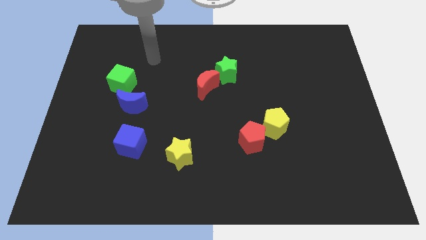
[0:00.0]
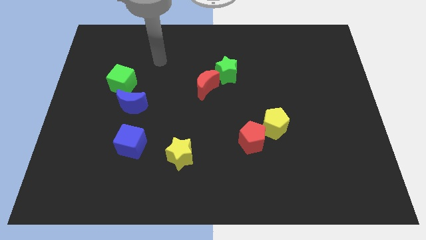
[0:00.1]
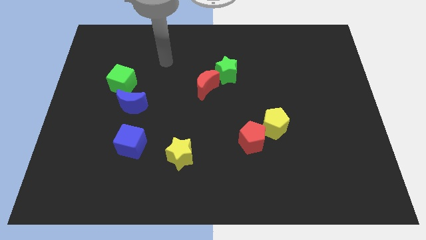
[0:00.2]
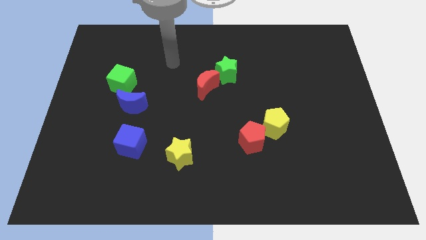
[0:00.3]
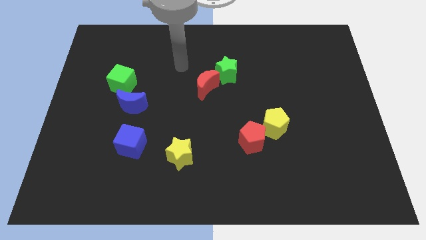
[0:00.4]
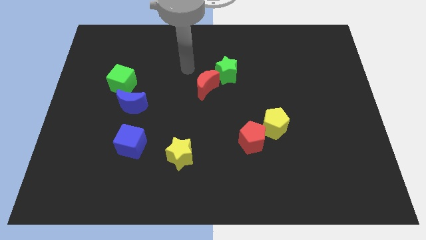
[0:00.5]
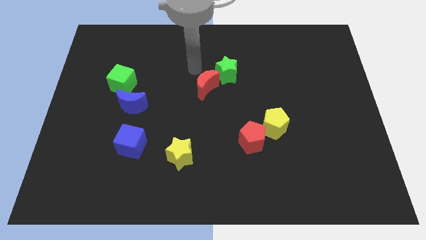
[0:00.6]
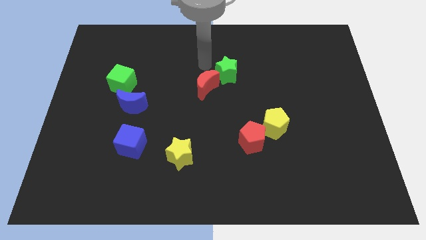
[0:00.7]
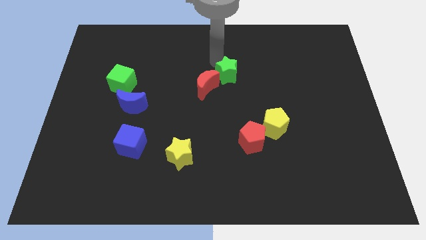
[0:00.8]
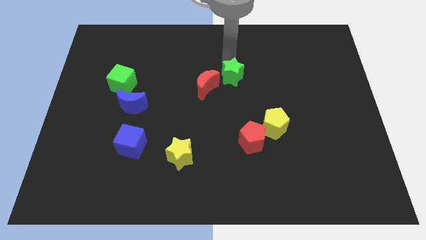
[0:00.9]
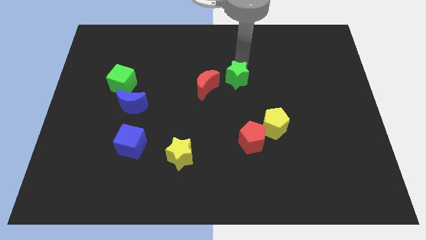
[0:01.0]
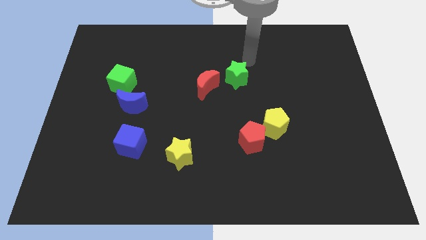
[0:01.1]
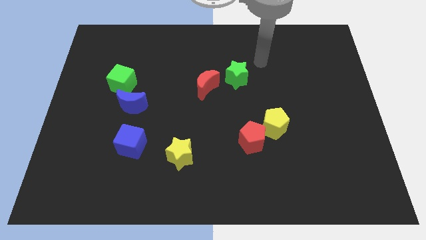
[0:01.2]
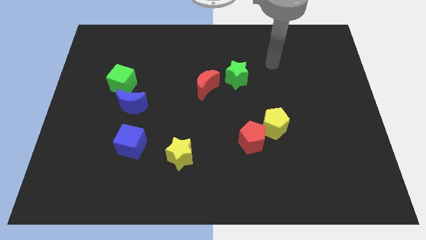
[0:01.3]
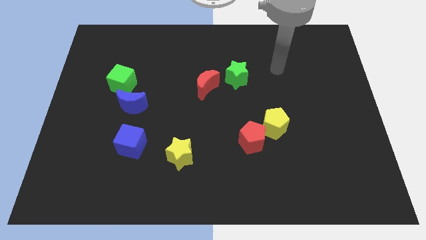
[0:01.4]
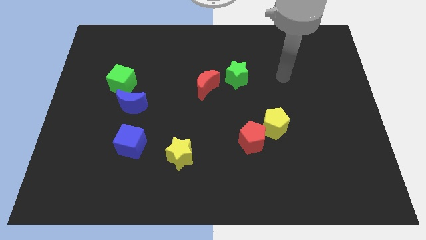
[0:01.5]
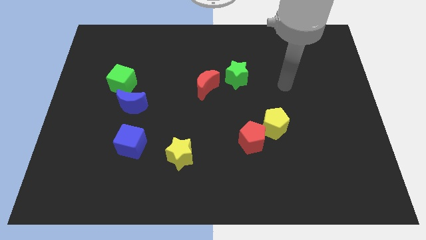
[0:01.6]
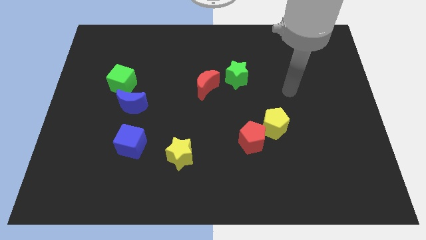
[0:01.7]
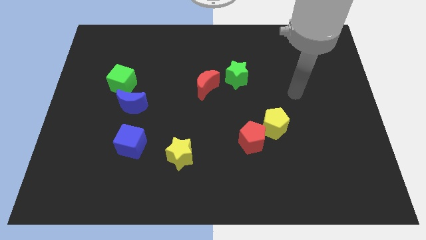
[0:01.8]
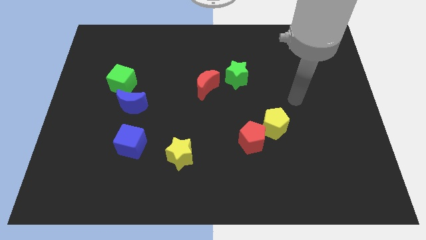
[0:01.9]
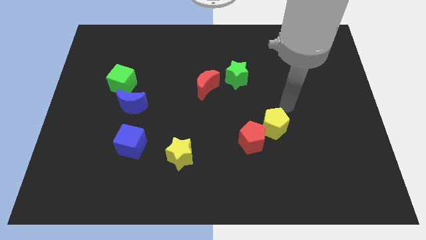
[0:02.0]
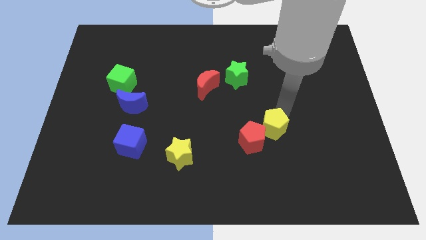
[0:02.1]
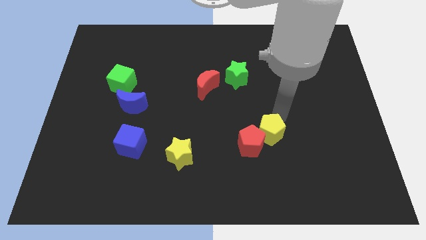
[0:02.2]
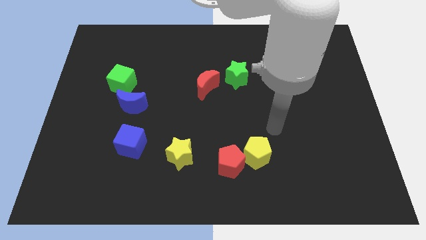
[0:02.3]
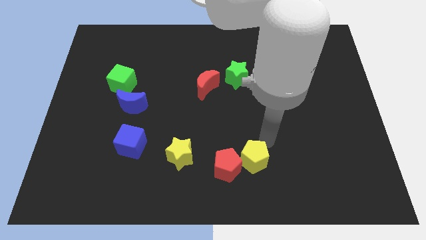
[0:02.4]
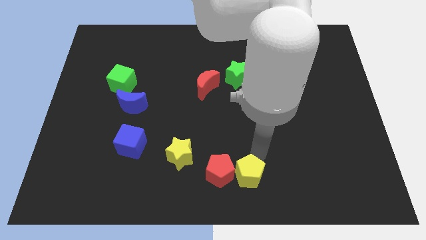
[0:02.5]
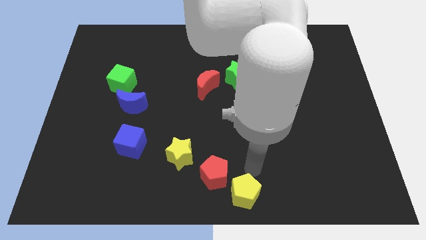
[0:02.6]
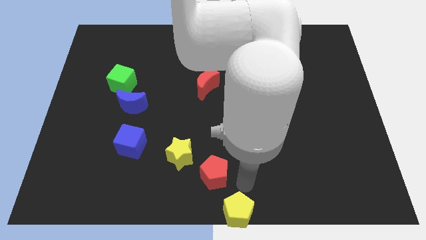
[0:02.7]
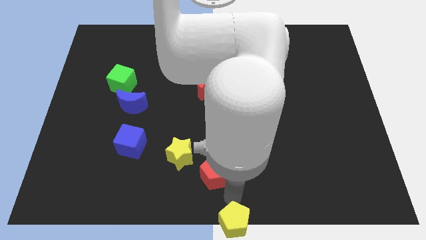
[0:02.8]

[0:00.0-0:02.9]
move the red pentagon away from the yellow pentagon

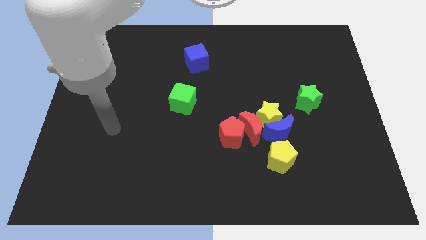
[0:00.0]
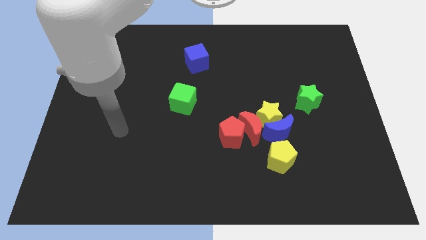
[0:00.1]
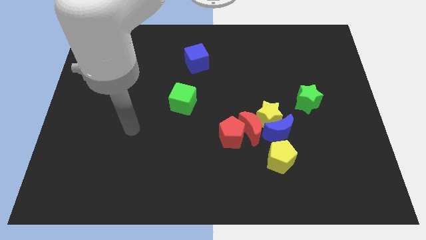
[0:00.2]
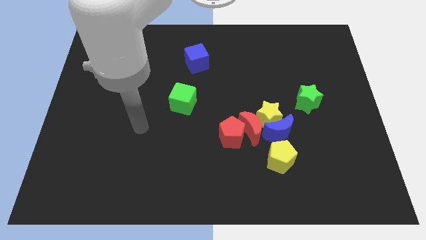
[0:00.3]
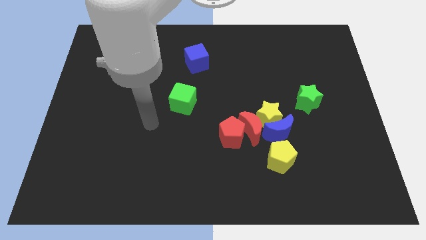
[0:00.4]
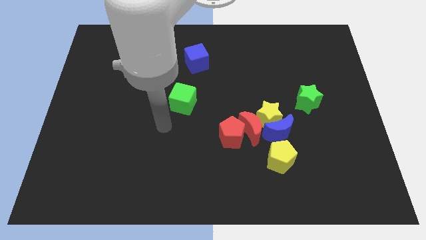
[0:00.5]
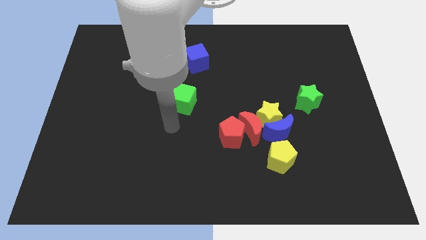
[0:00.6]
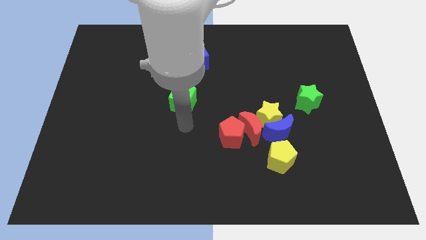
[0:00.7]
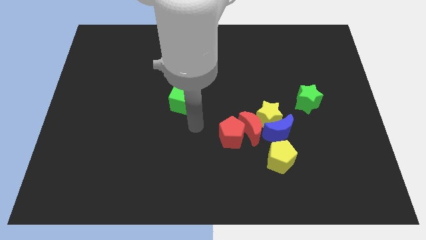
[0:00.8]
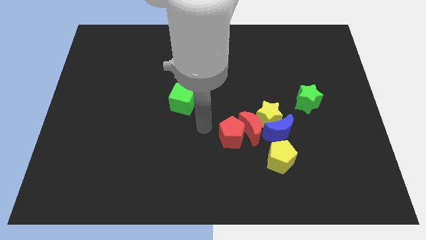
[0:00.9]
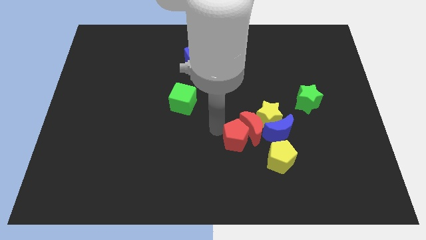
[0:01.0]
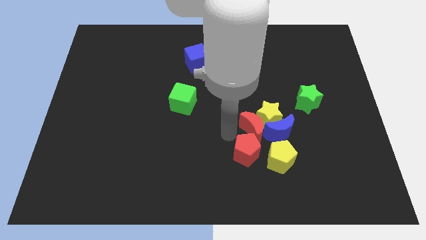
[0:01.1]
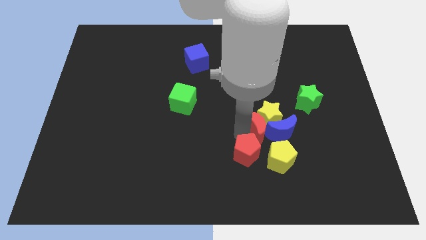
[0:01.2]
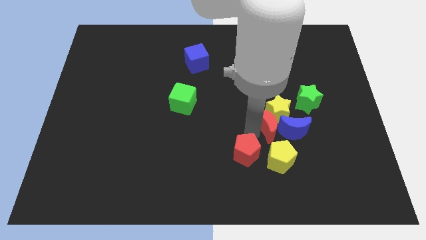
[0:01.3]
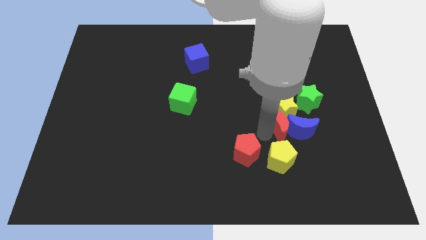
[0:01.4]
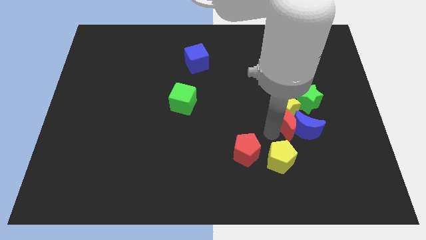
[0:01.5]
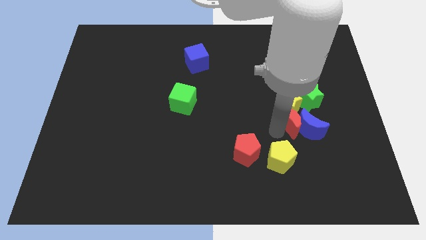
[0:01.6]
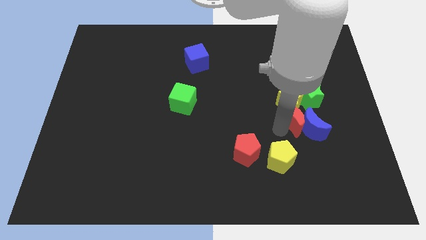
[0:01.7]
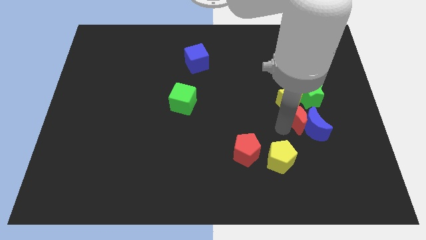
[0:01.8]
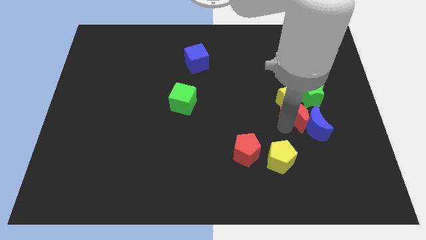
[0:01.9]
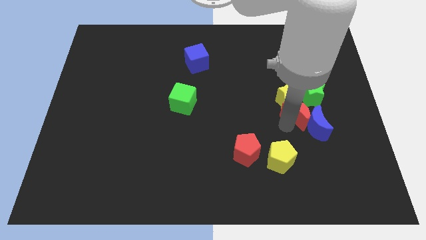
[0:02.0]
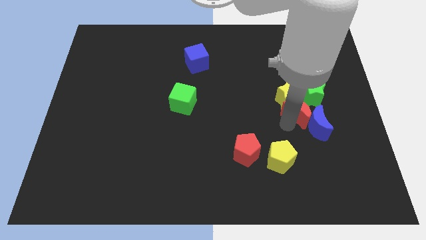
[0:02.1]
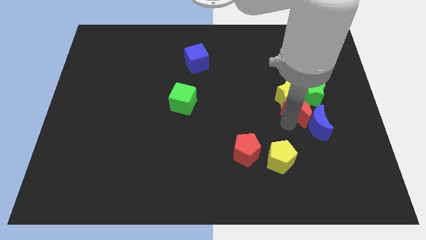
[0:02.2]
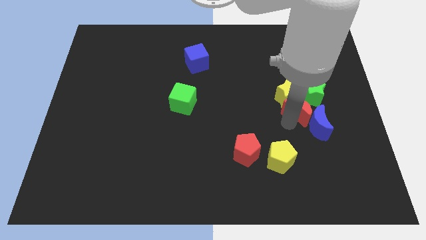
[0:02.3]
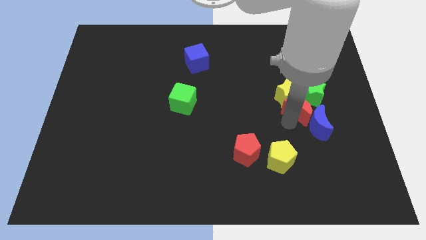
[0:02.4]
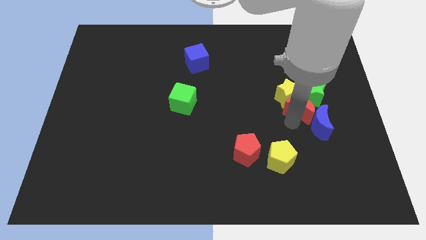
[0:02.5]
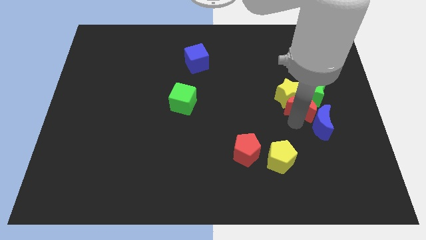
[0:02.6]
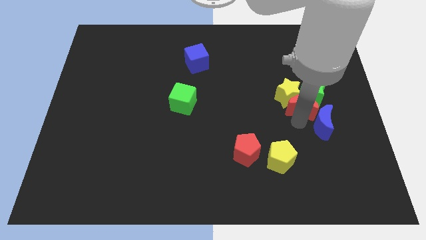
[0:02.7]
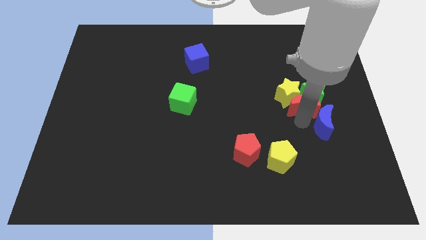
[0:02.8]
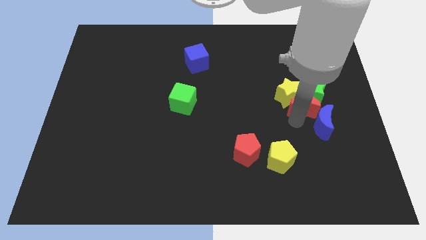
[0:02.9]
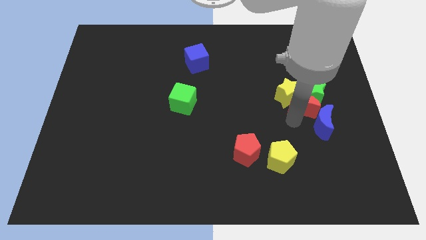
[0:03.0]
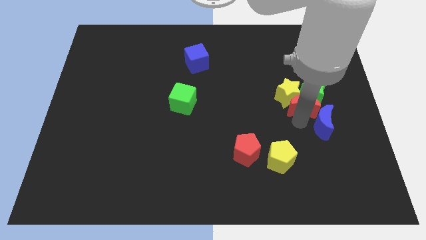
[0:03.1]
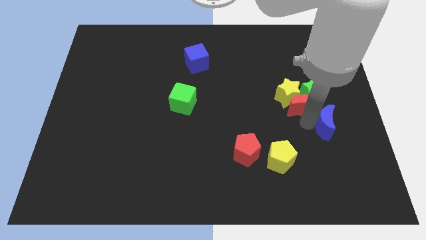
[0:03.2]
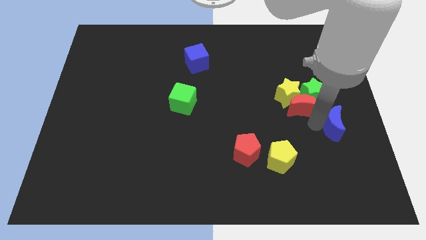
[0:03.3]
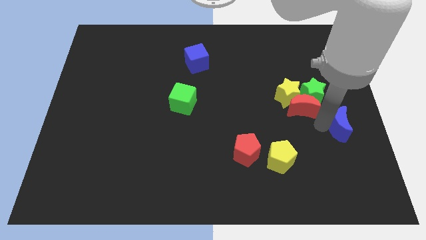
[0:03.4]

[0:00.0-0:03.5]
pull the blue moon apart from the yellow star, red moon, and yellow pentagon

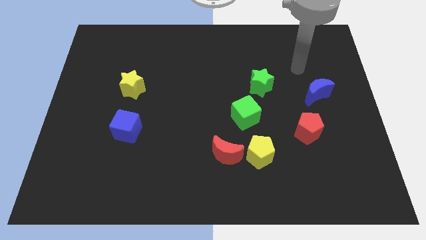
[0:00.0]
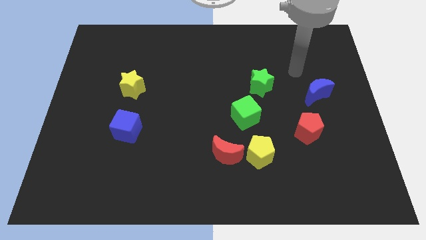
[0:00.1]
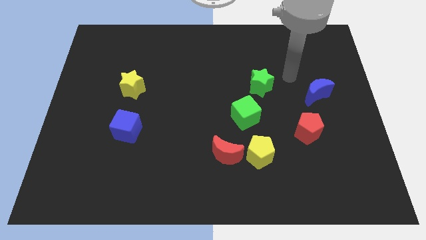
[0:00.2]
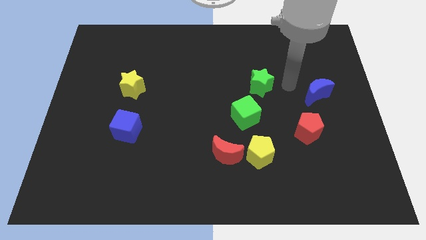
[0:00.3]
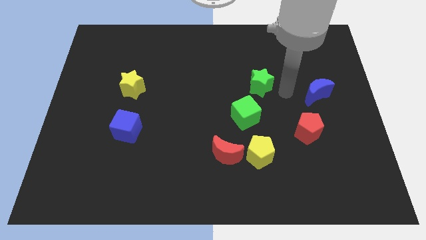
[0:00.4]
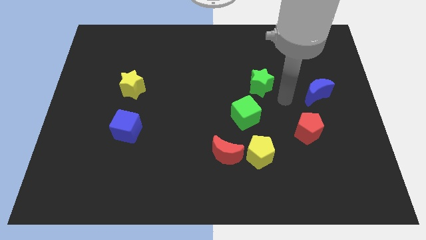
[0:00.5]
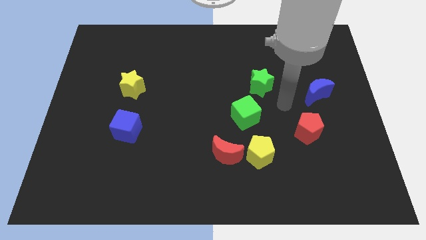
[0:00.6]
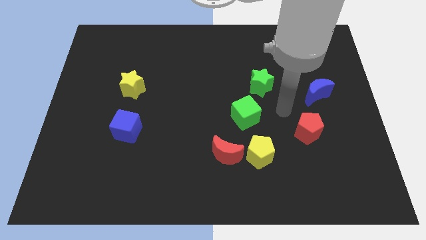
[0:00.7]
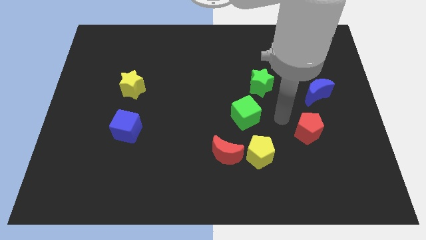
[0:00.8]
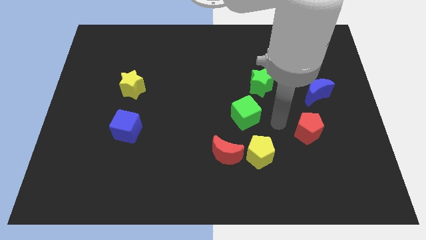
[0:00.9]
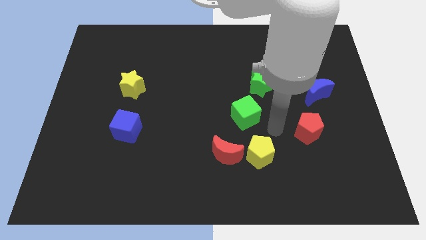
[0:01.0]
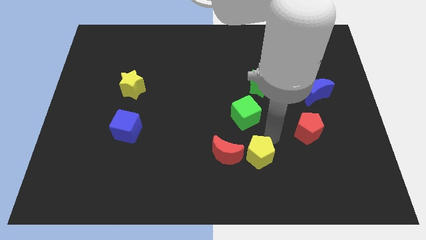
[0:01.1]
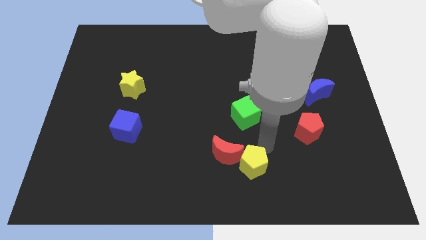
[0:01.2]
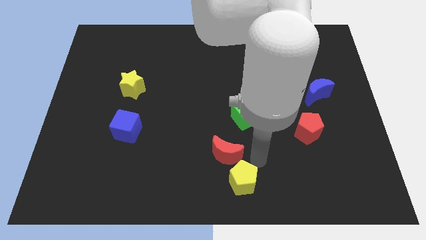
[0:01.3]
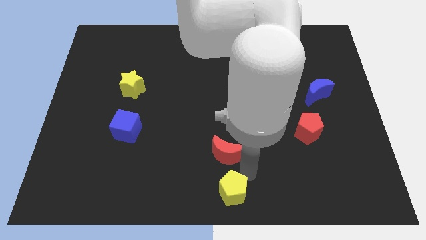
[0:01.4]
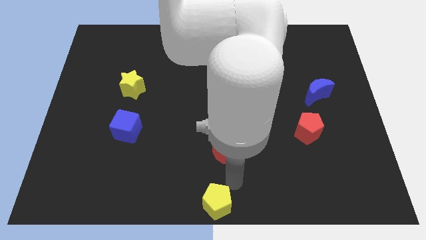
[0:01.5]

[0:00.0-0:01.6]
move the red moon away from the yellow pentagon

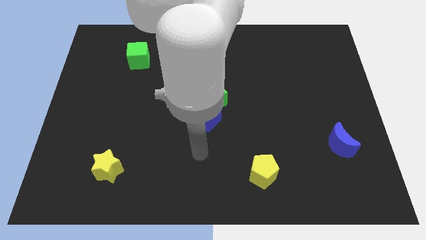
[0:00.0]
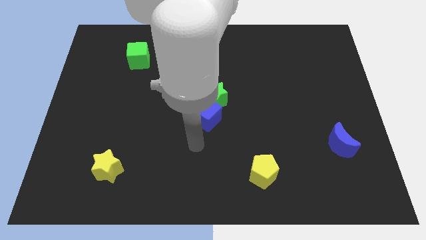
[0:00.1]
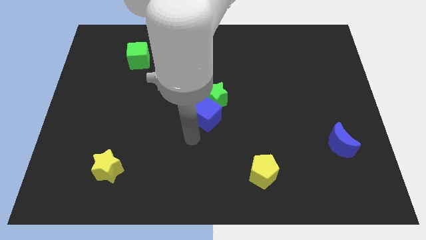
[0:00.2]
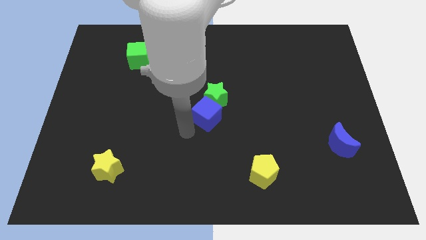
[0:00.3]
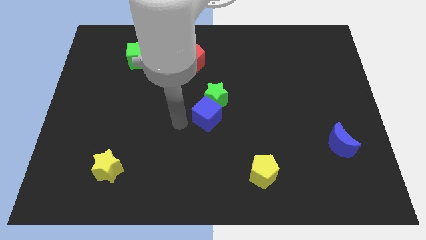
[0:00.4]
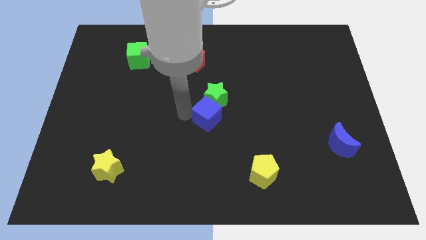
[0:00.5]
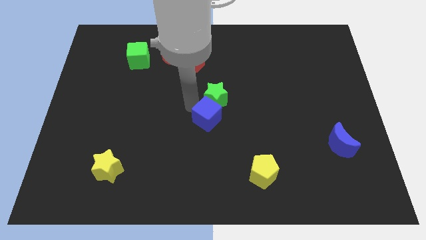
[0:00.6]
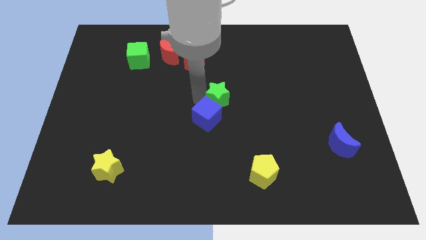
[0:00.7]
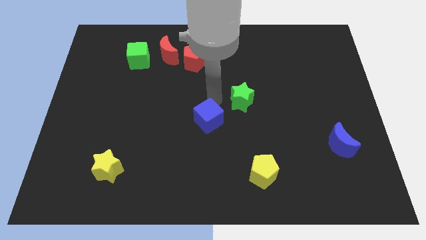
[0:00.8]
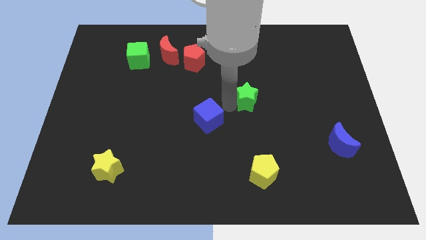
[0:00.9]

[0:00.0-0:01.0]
separate the blue cube from the green star

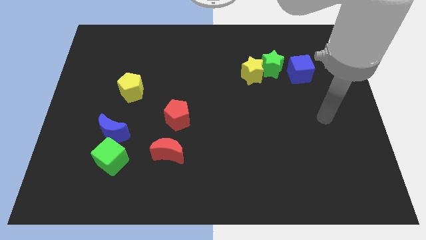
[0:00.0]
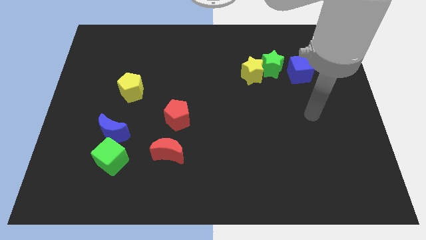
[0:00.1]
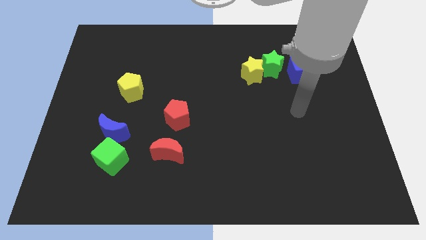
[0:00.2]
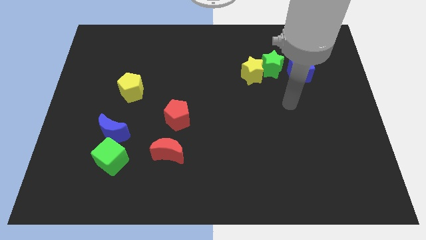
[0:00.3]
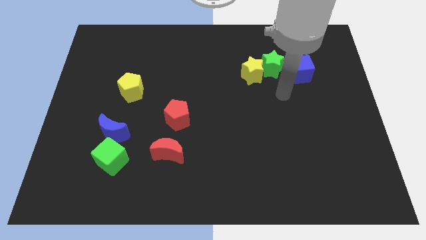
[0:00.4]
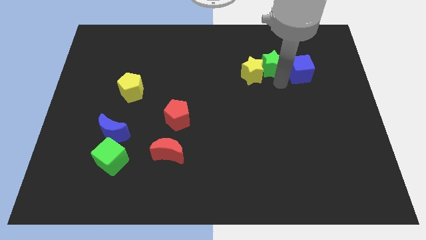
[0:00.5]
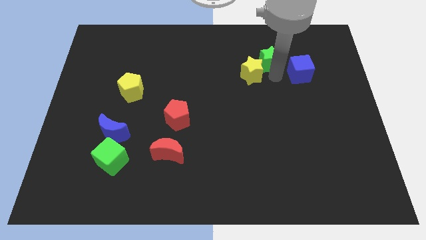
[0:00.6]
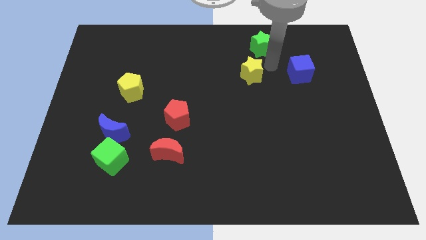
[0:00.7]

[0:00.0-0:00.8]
pull the yellow star apart from the green star
